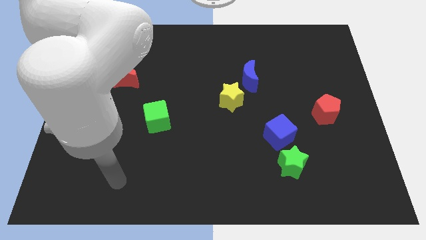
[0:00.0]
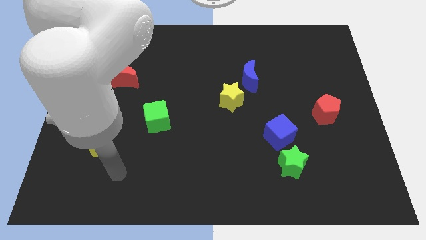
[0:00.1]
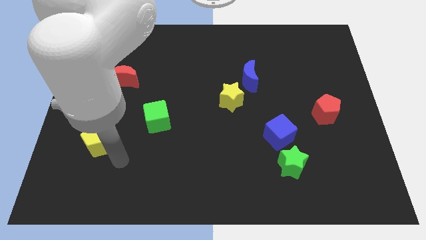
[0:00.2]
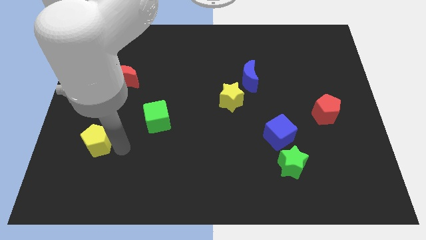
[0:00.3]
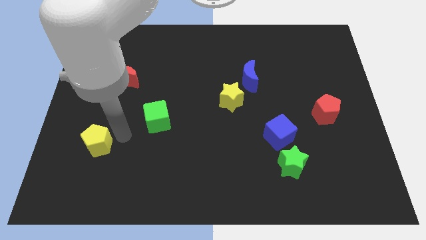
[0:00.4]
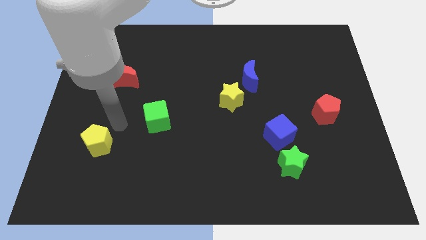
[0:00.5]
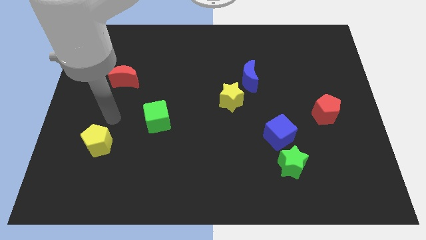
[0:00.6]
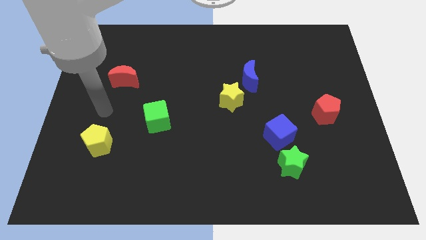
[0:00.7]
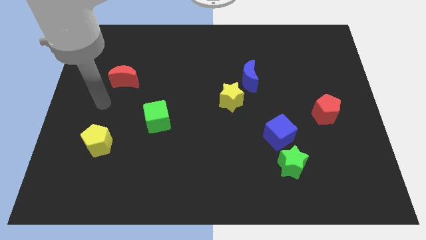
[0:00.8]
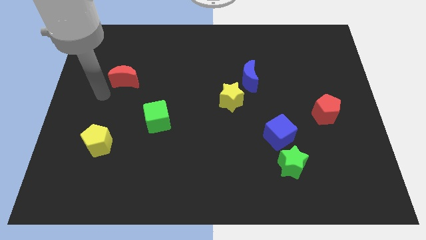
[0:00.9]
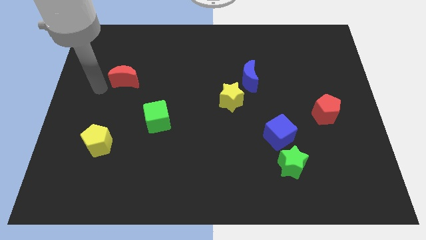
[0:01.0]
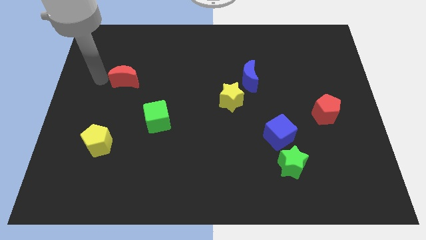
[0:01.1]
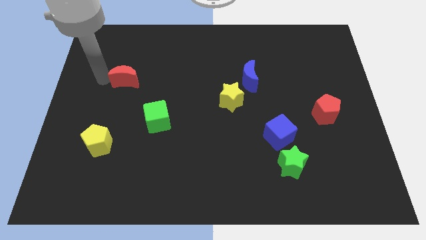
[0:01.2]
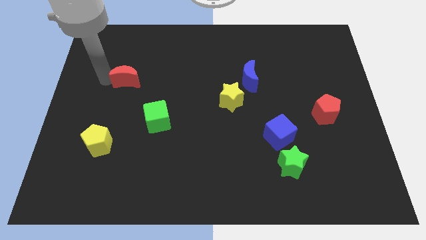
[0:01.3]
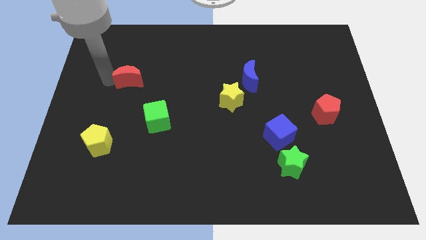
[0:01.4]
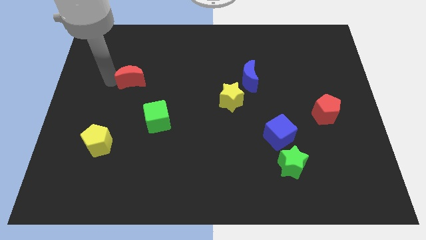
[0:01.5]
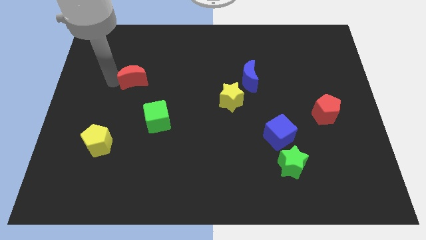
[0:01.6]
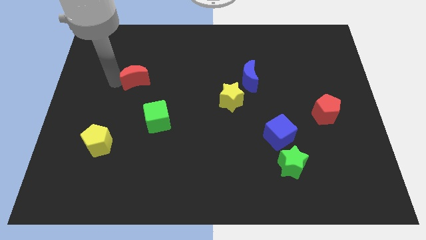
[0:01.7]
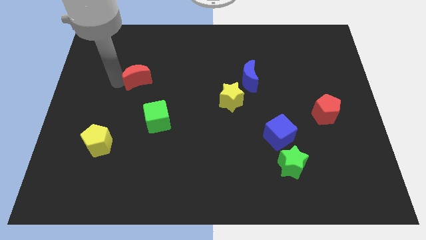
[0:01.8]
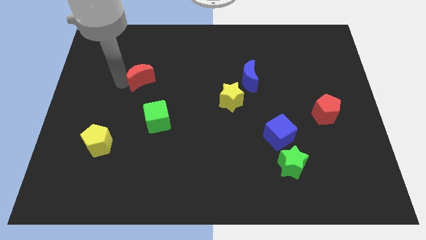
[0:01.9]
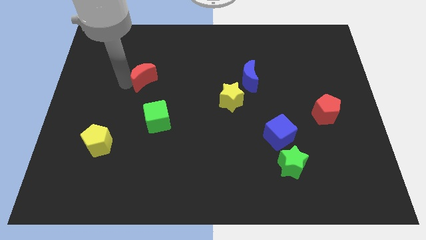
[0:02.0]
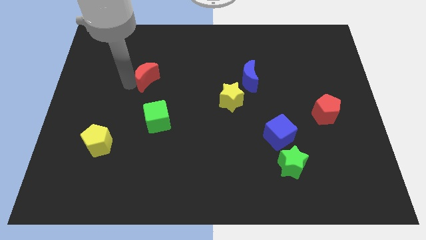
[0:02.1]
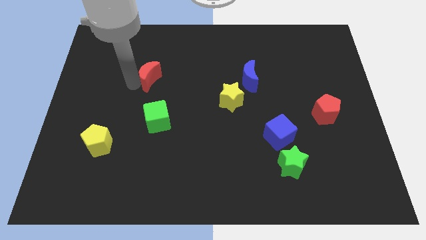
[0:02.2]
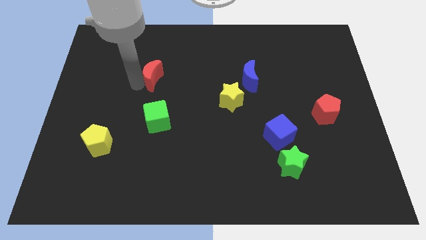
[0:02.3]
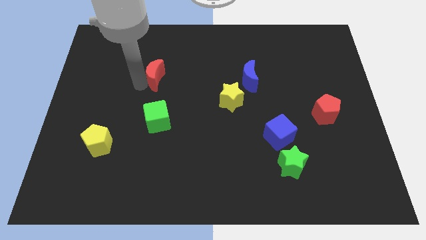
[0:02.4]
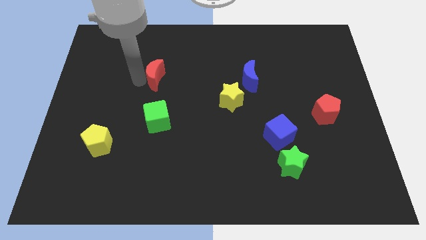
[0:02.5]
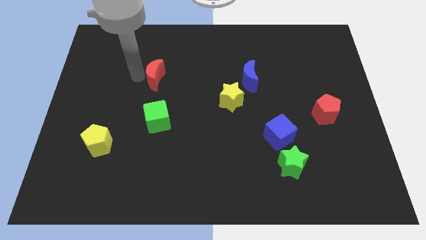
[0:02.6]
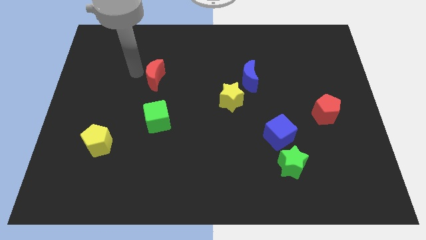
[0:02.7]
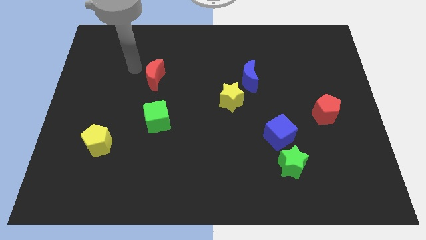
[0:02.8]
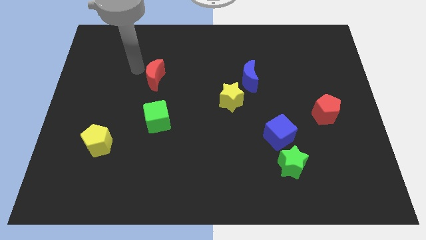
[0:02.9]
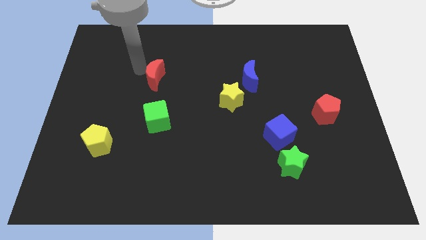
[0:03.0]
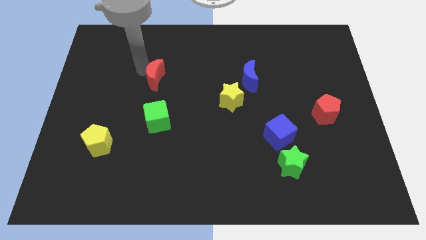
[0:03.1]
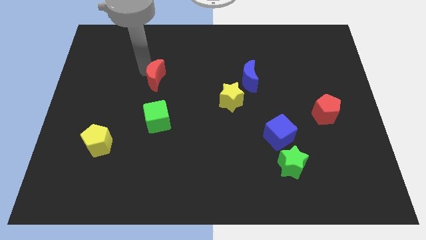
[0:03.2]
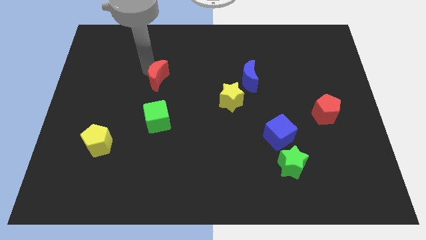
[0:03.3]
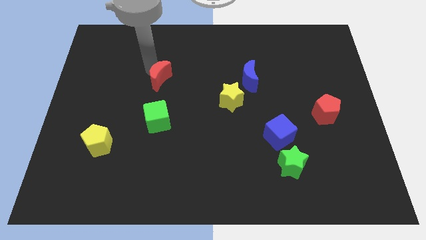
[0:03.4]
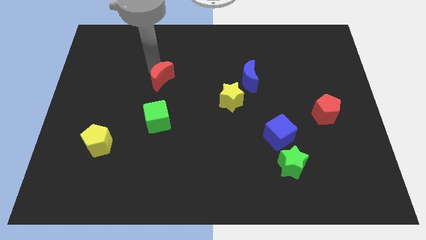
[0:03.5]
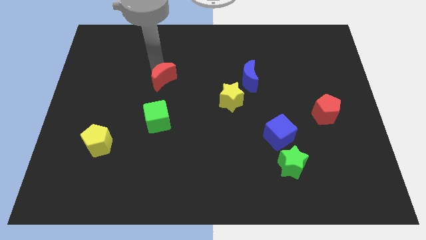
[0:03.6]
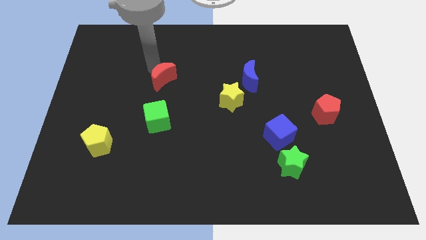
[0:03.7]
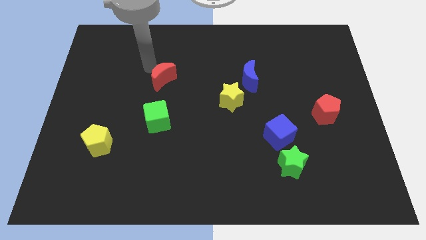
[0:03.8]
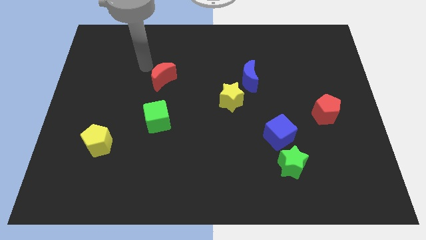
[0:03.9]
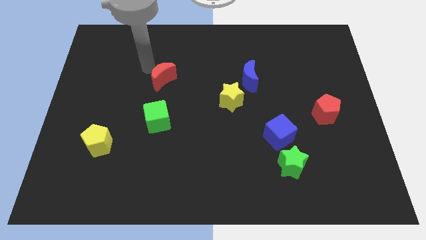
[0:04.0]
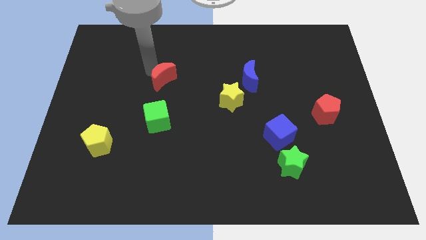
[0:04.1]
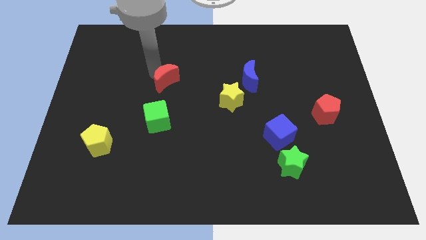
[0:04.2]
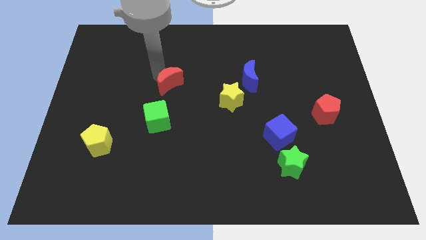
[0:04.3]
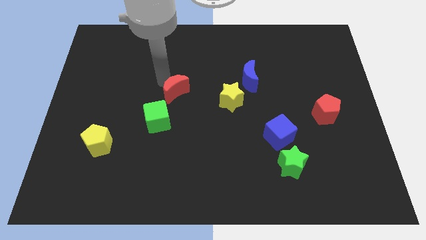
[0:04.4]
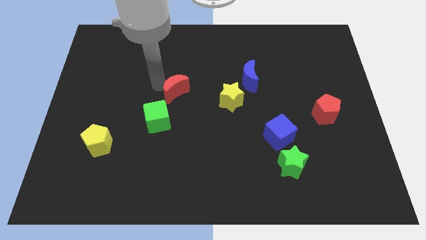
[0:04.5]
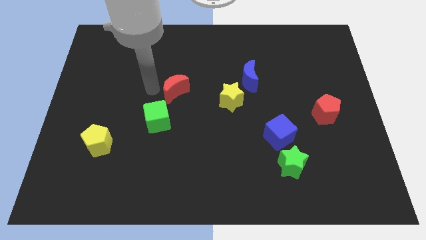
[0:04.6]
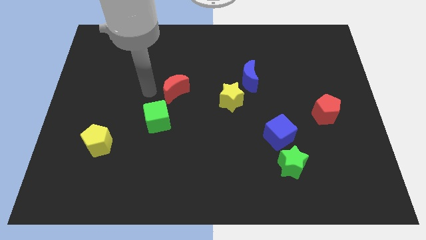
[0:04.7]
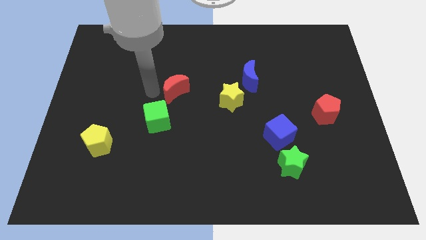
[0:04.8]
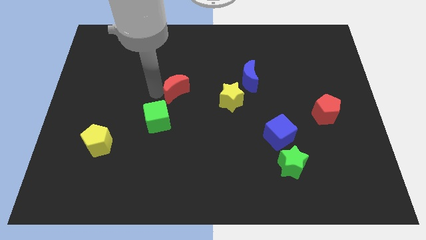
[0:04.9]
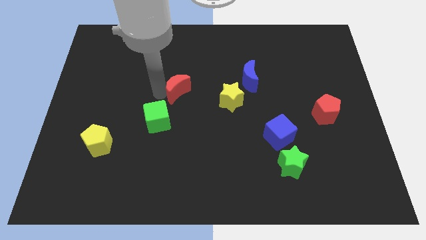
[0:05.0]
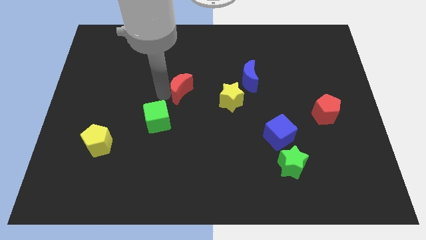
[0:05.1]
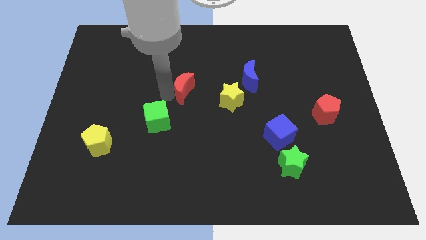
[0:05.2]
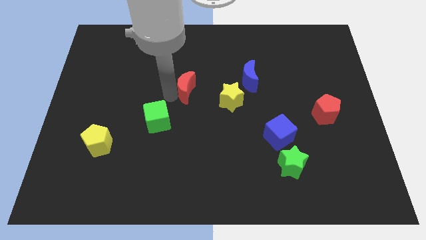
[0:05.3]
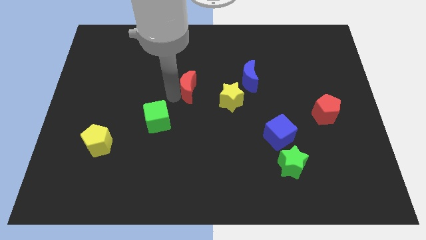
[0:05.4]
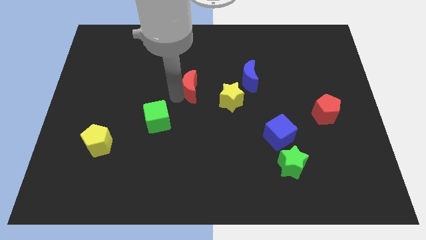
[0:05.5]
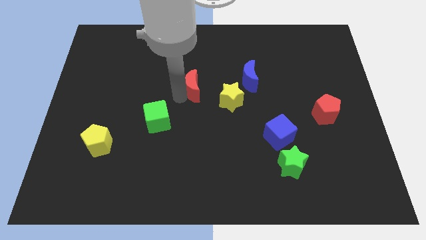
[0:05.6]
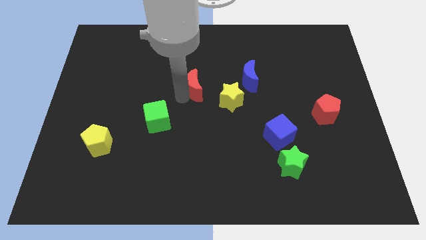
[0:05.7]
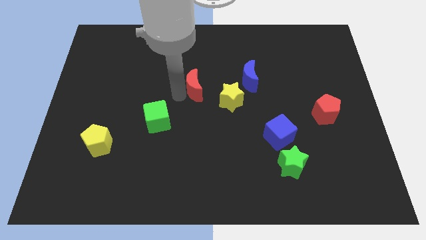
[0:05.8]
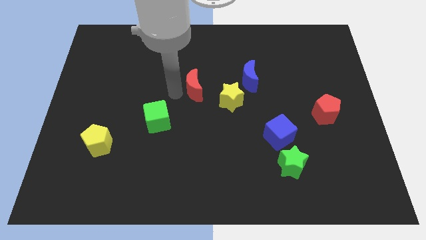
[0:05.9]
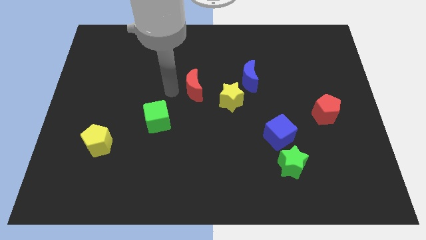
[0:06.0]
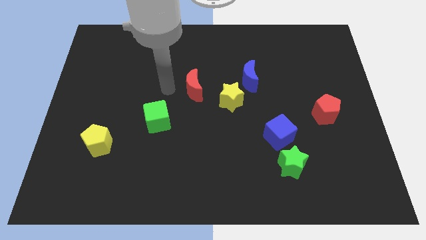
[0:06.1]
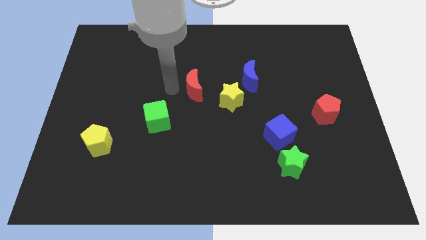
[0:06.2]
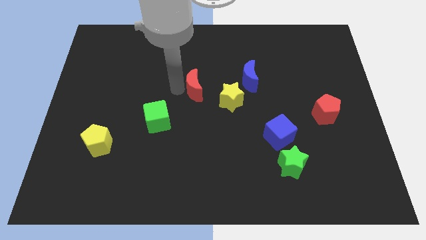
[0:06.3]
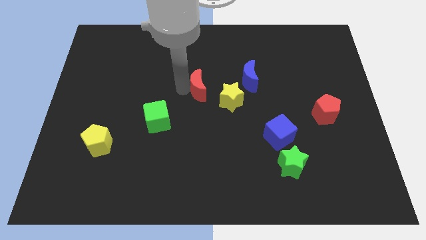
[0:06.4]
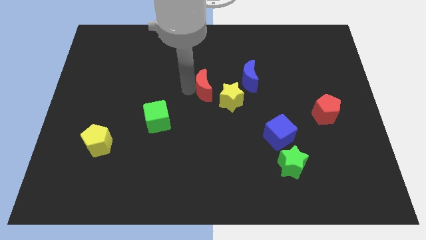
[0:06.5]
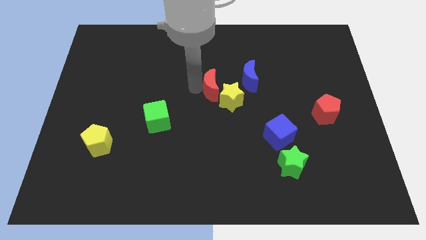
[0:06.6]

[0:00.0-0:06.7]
push the red moon to the yellow star
